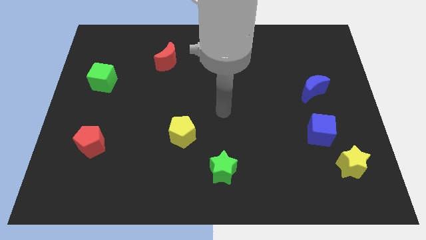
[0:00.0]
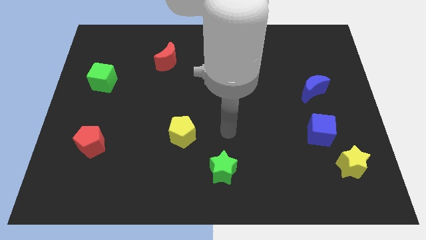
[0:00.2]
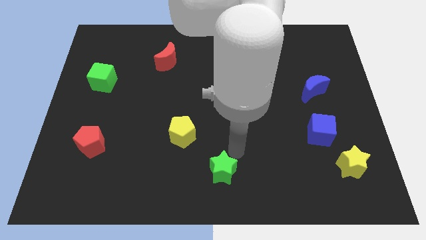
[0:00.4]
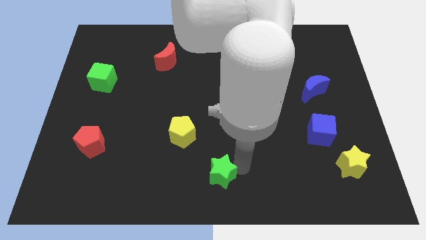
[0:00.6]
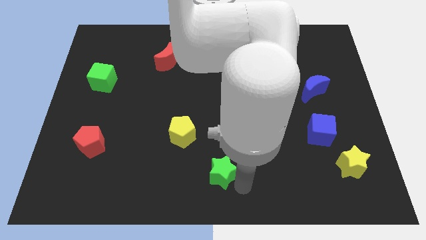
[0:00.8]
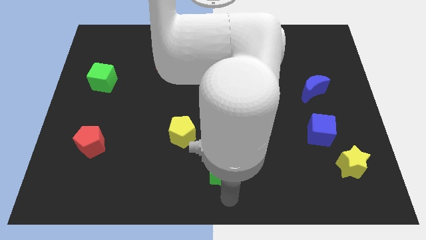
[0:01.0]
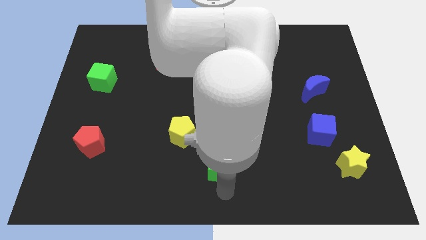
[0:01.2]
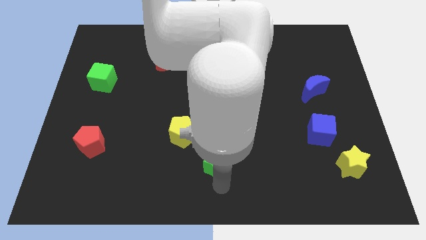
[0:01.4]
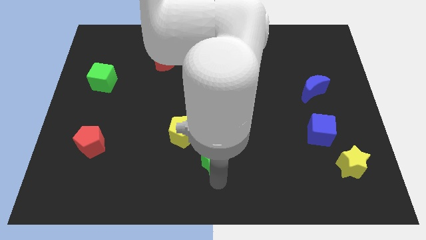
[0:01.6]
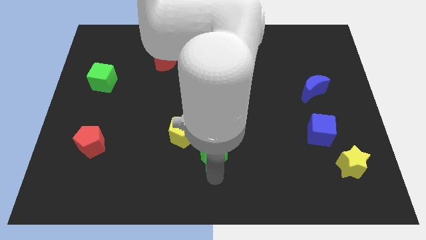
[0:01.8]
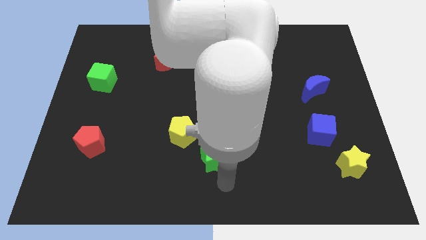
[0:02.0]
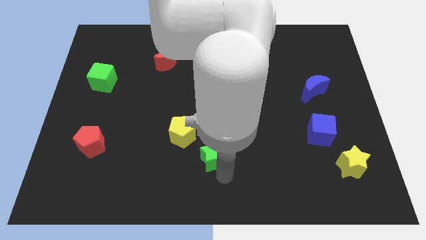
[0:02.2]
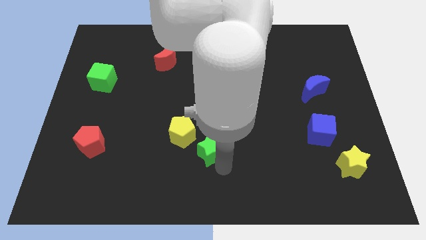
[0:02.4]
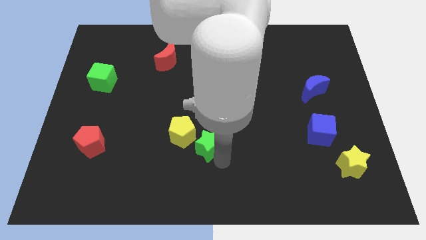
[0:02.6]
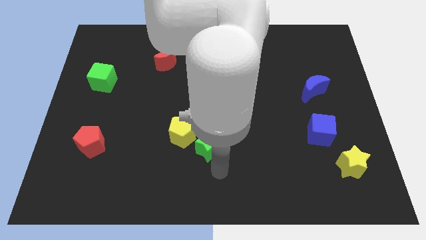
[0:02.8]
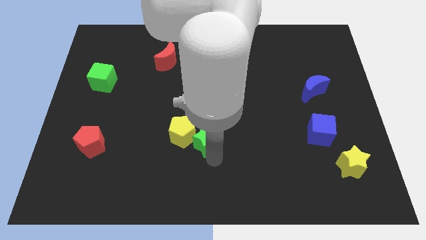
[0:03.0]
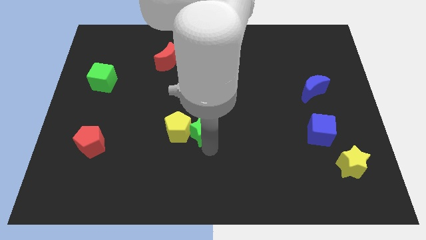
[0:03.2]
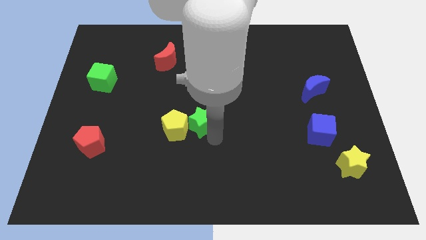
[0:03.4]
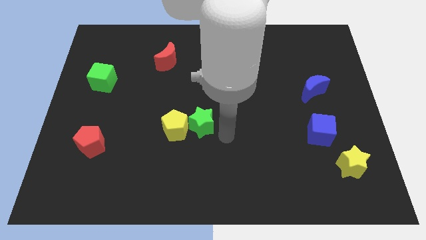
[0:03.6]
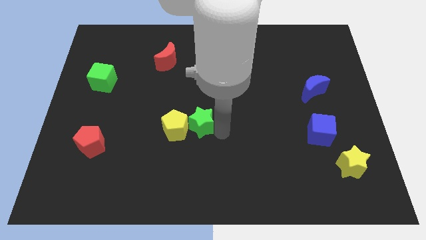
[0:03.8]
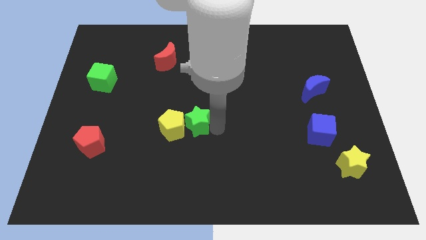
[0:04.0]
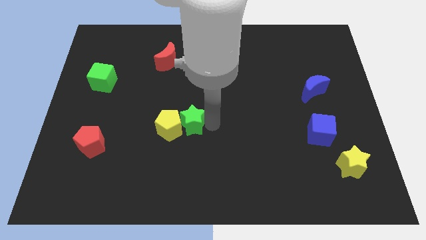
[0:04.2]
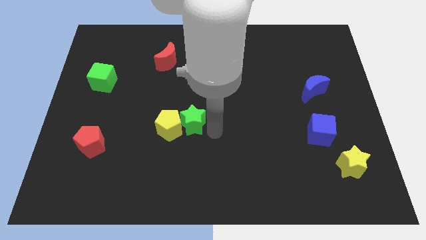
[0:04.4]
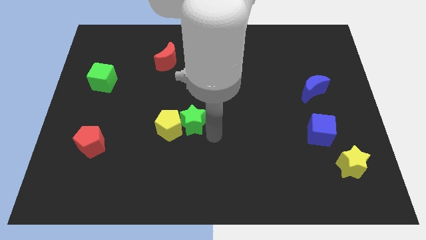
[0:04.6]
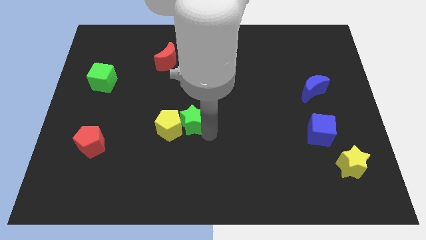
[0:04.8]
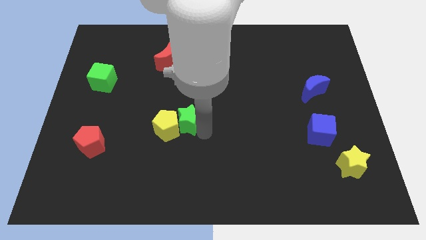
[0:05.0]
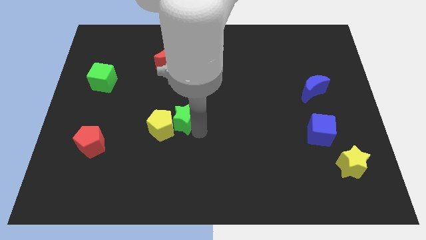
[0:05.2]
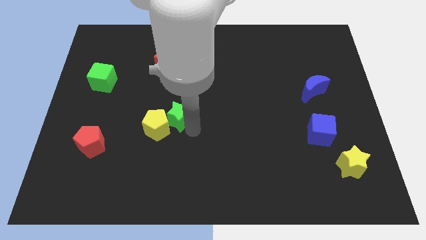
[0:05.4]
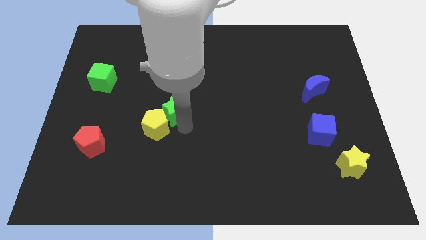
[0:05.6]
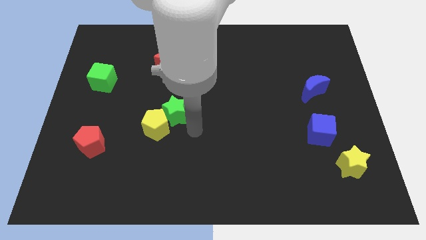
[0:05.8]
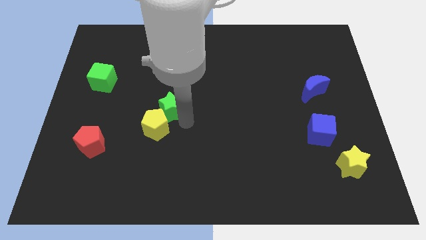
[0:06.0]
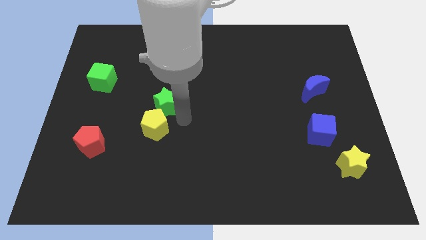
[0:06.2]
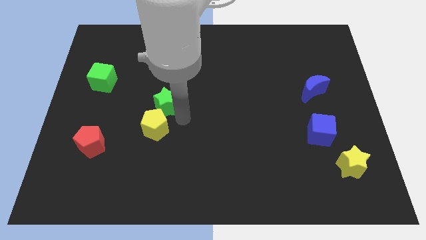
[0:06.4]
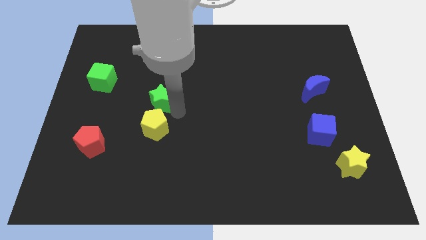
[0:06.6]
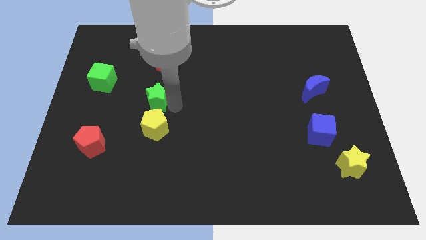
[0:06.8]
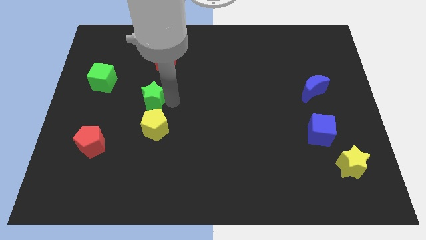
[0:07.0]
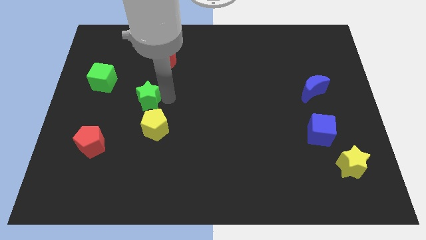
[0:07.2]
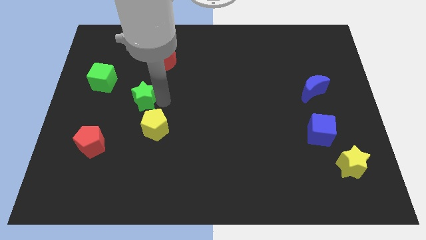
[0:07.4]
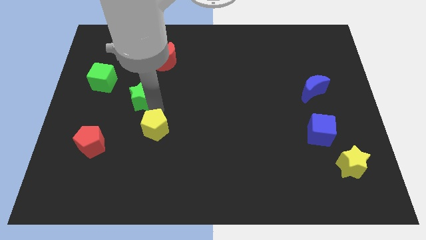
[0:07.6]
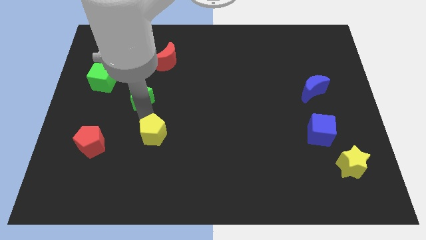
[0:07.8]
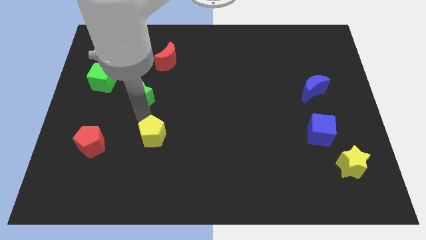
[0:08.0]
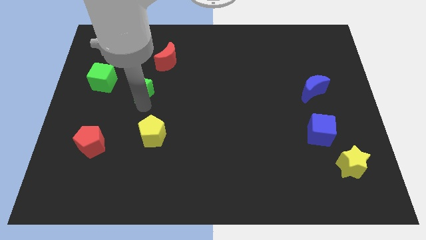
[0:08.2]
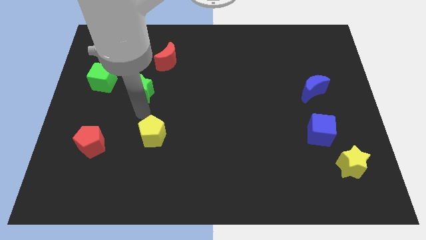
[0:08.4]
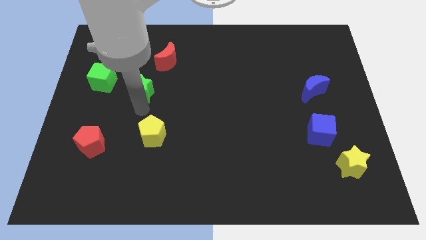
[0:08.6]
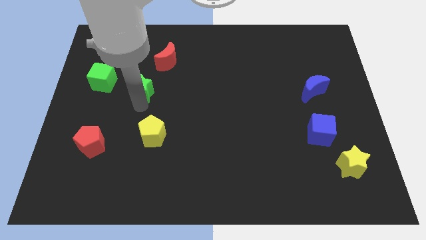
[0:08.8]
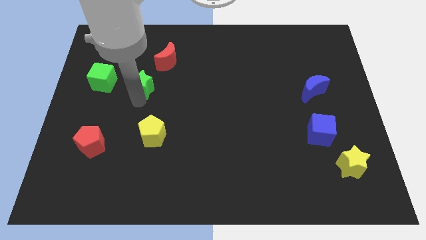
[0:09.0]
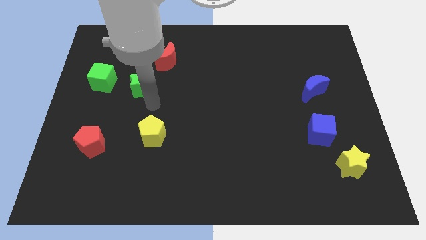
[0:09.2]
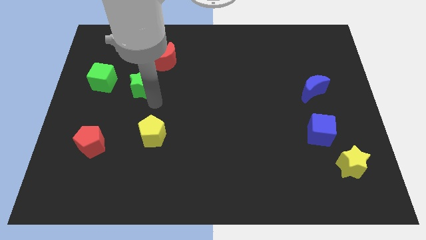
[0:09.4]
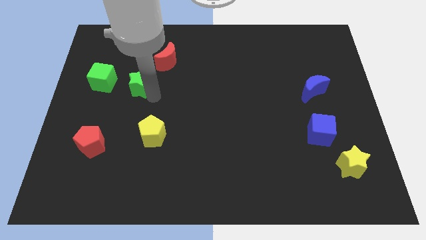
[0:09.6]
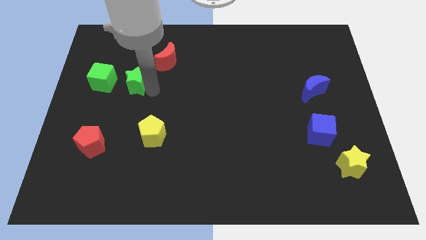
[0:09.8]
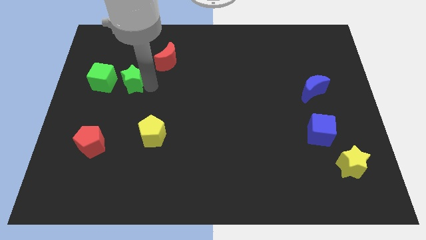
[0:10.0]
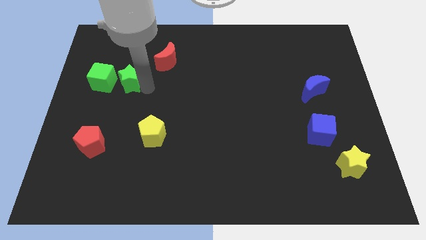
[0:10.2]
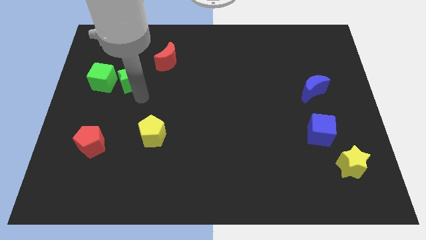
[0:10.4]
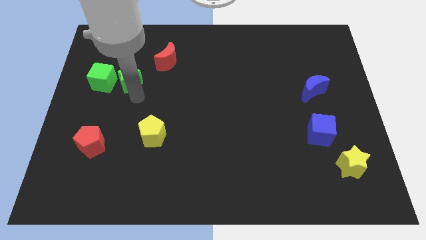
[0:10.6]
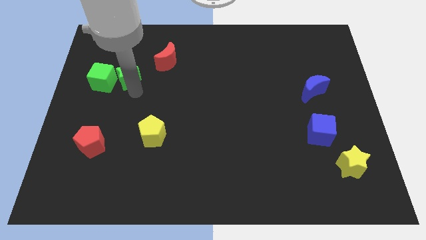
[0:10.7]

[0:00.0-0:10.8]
push the green star to the top right side of the green cube

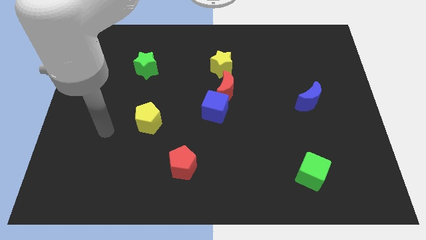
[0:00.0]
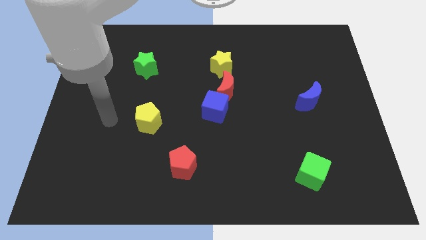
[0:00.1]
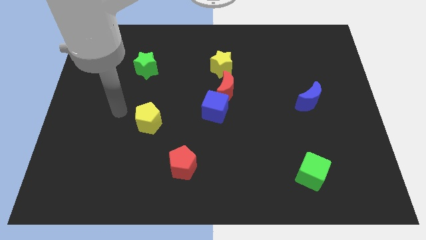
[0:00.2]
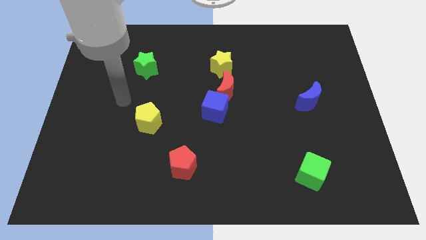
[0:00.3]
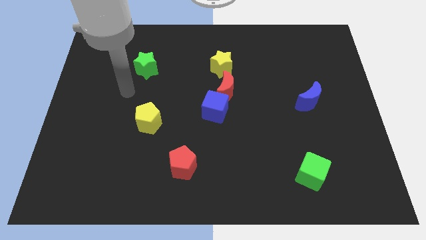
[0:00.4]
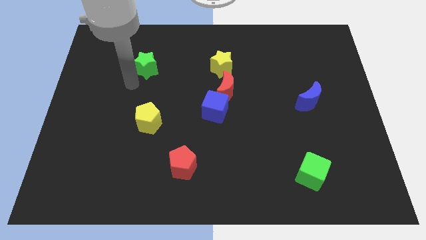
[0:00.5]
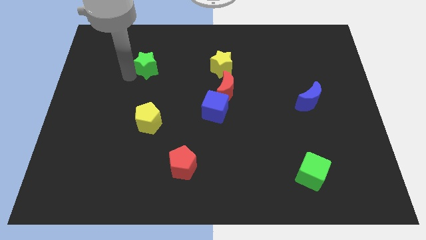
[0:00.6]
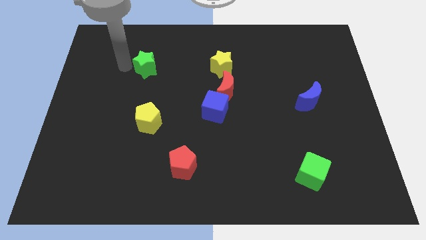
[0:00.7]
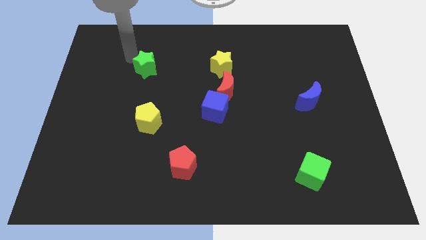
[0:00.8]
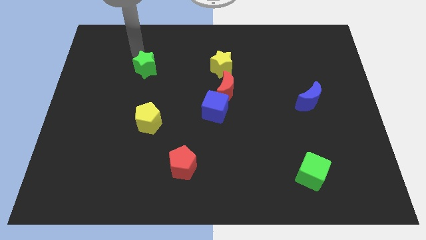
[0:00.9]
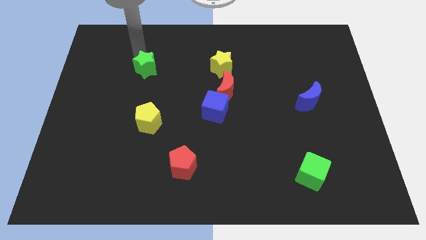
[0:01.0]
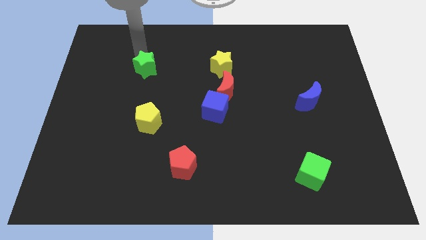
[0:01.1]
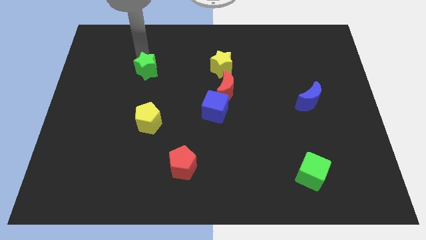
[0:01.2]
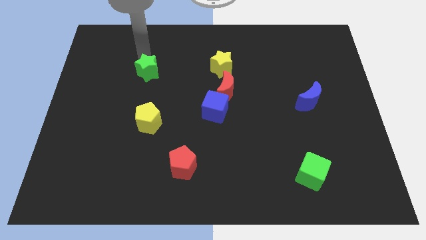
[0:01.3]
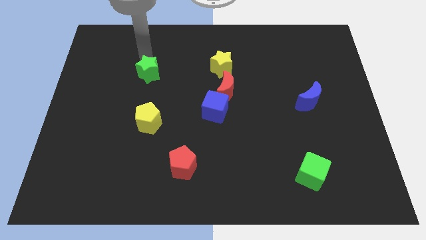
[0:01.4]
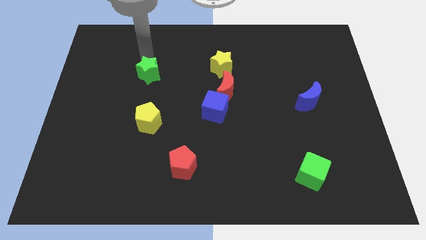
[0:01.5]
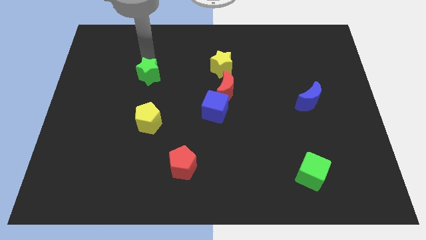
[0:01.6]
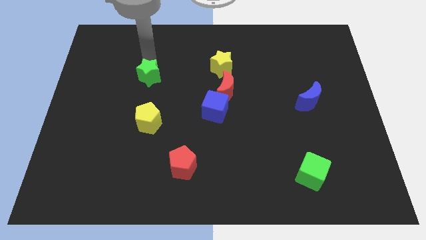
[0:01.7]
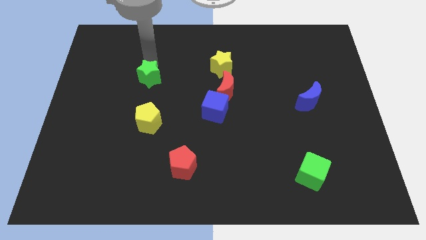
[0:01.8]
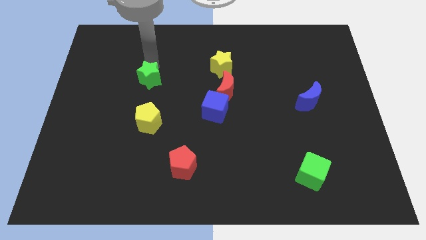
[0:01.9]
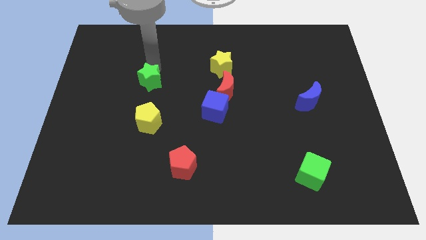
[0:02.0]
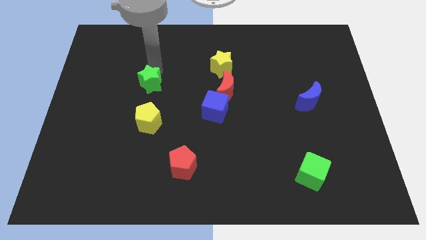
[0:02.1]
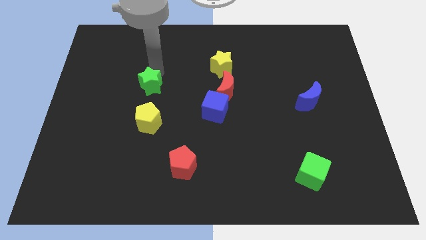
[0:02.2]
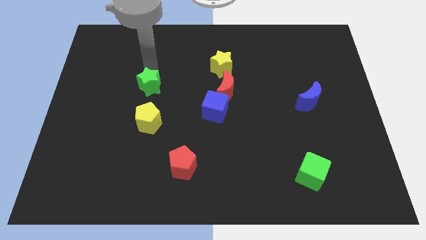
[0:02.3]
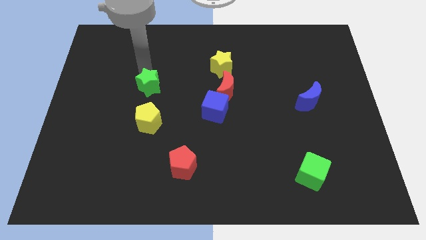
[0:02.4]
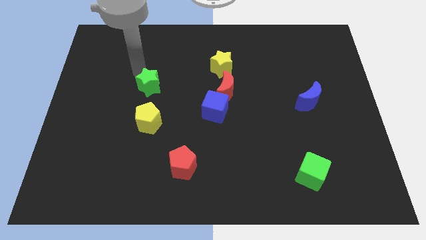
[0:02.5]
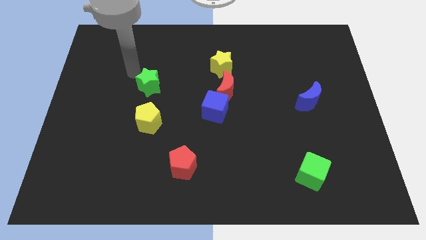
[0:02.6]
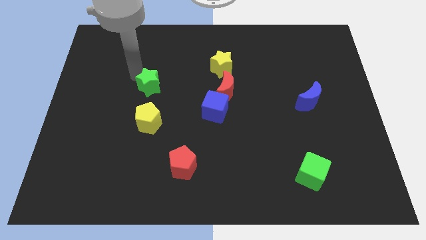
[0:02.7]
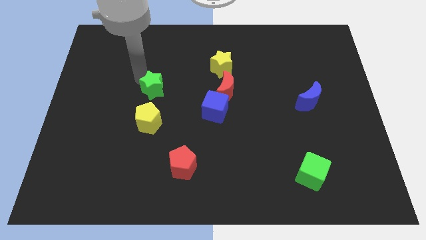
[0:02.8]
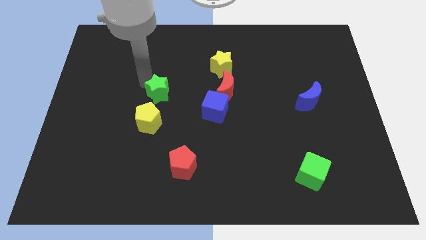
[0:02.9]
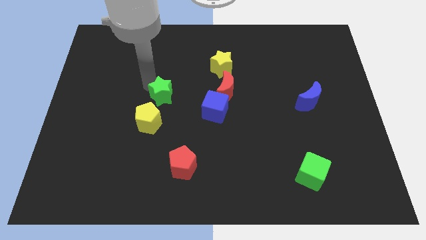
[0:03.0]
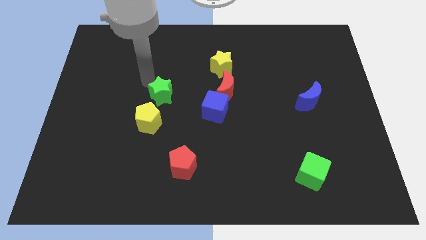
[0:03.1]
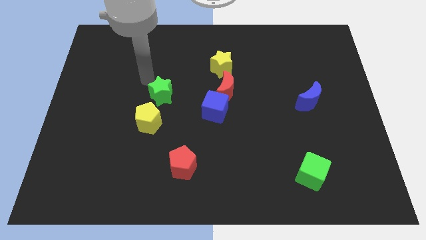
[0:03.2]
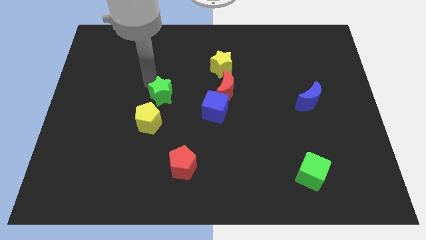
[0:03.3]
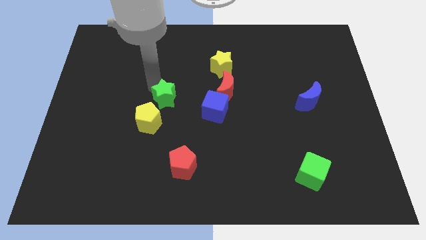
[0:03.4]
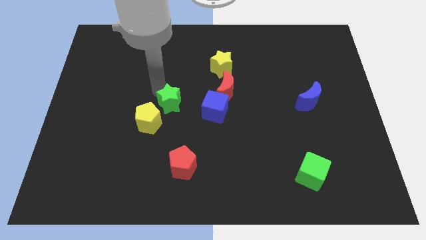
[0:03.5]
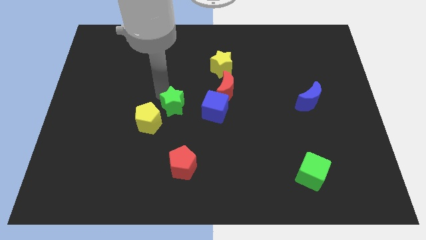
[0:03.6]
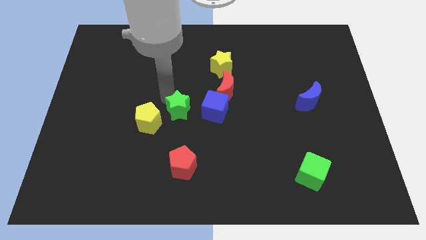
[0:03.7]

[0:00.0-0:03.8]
slide the green star to the top of the red pentagon
